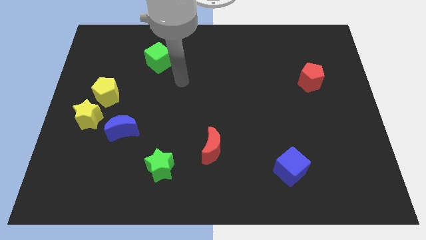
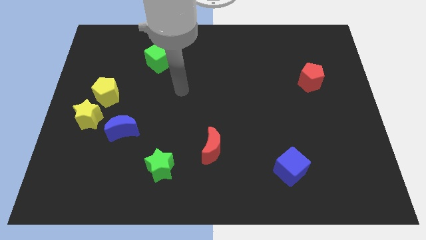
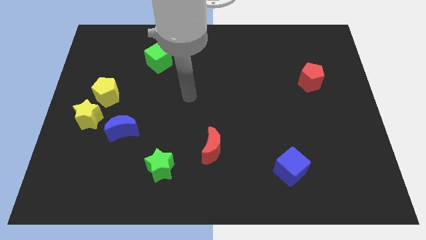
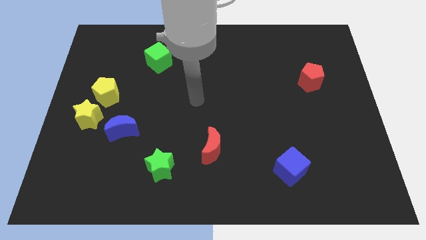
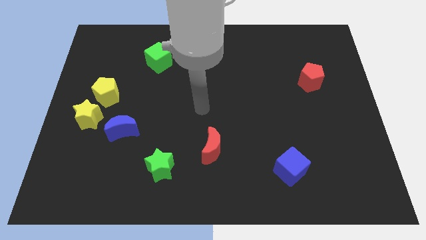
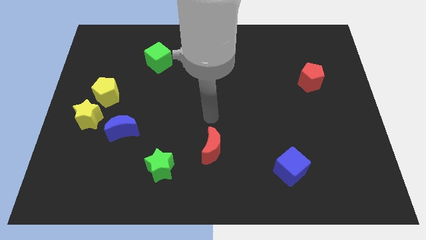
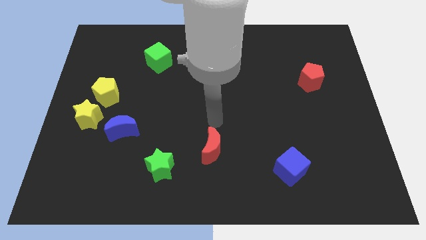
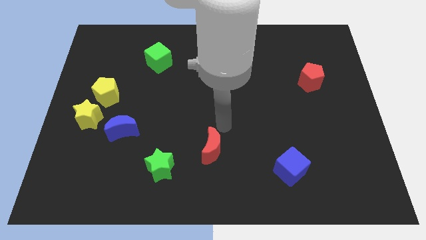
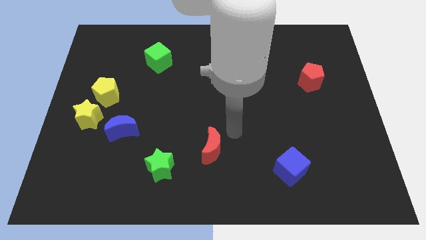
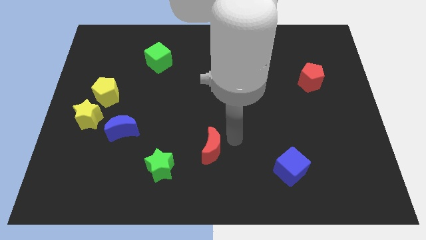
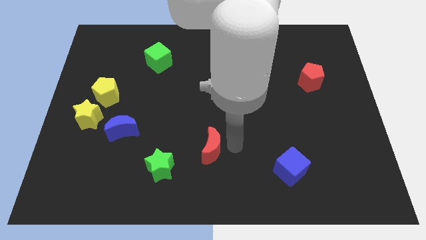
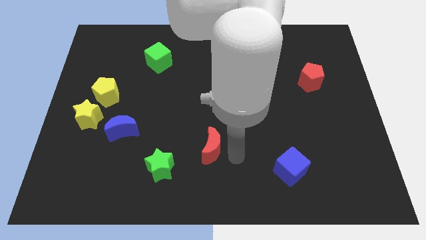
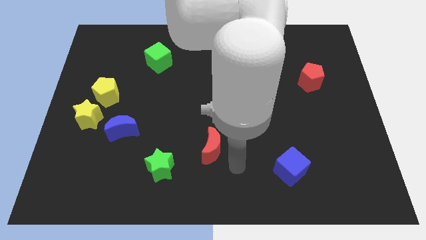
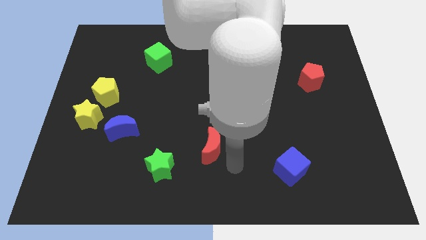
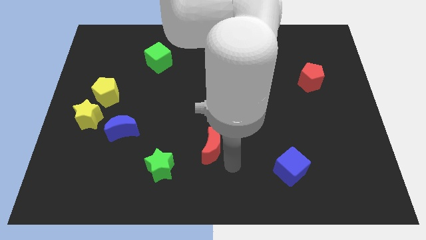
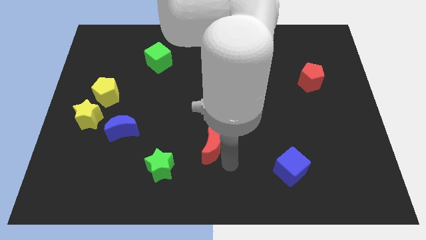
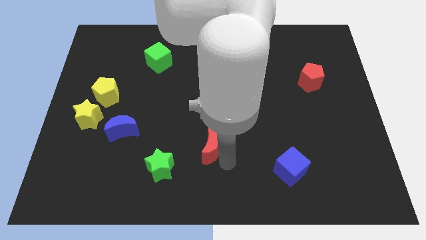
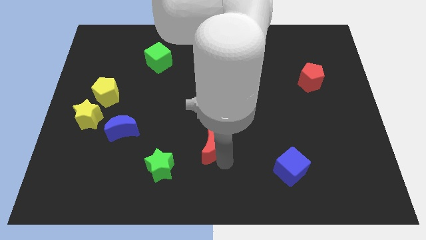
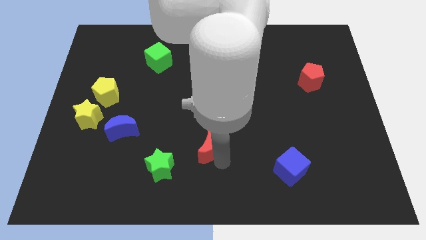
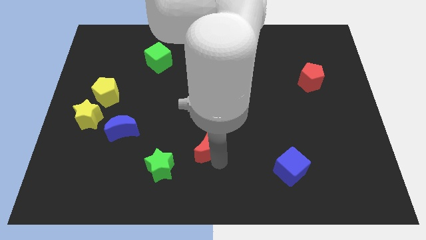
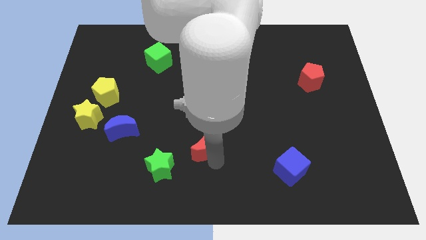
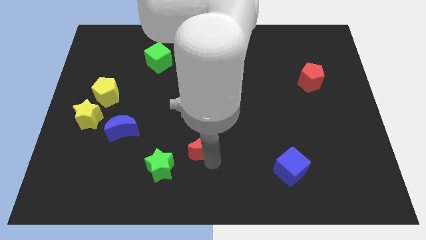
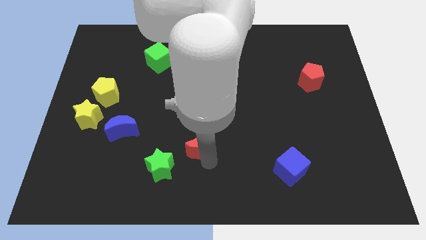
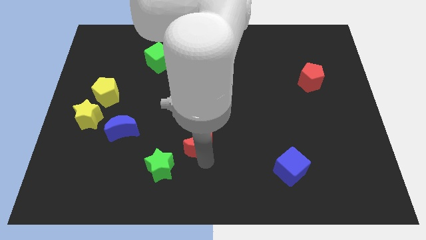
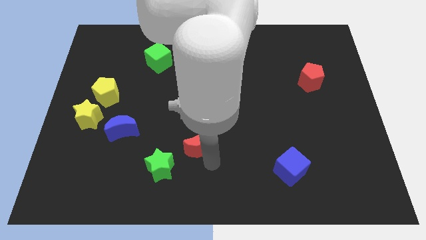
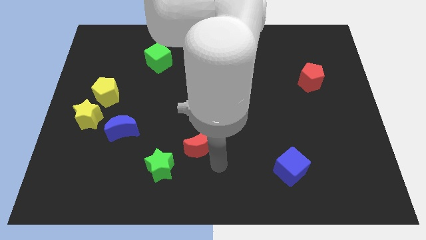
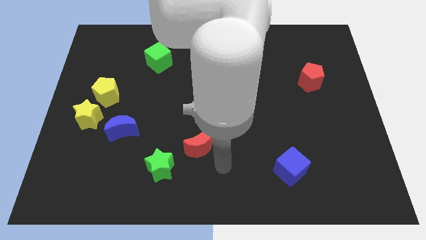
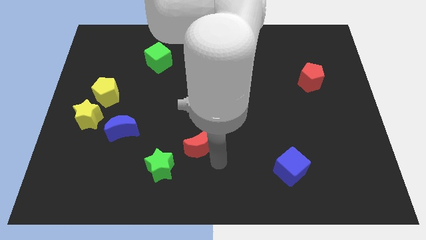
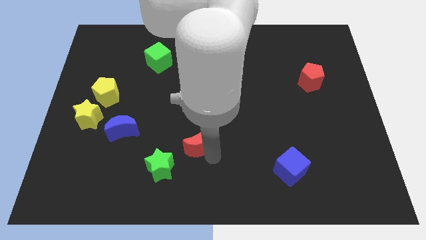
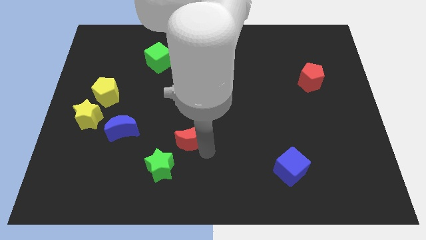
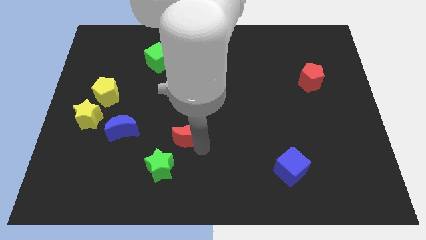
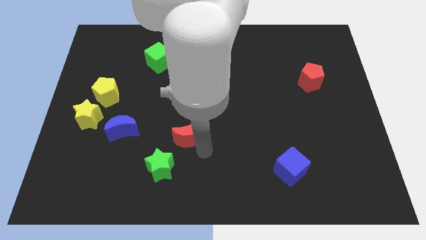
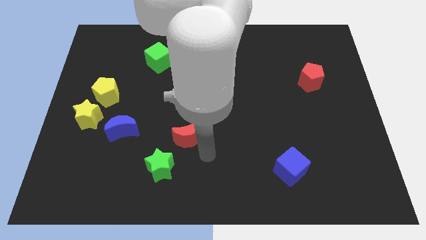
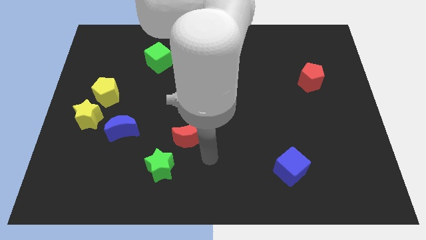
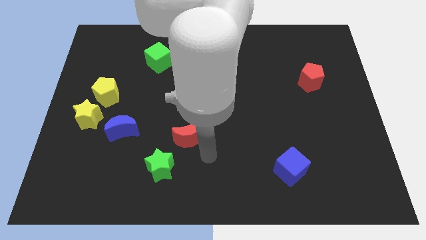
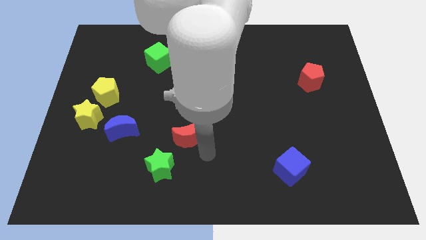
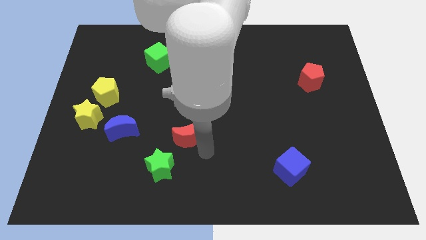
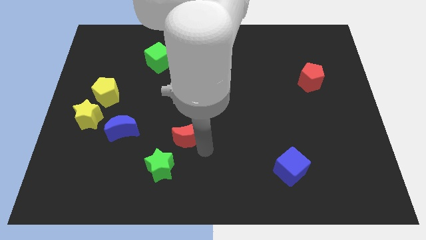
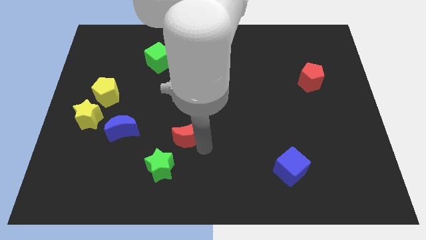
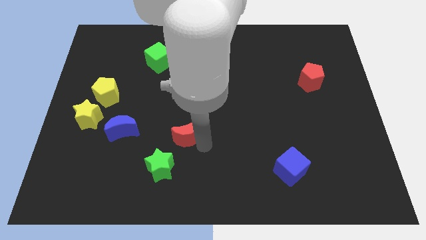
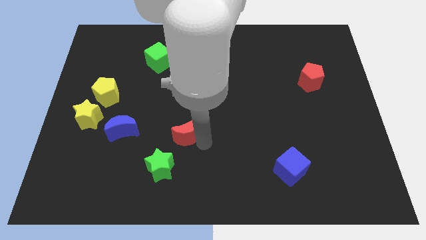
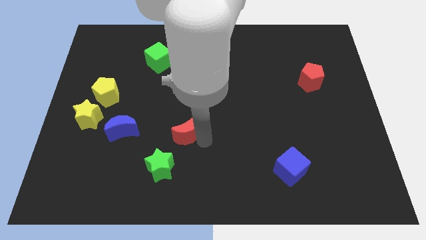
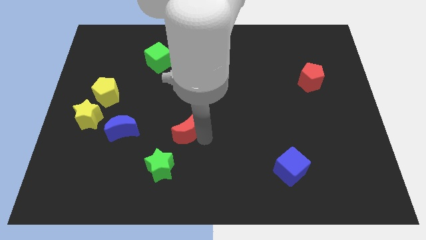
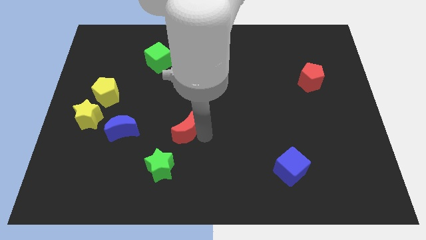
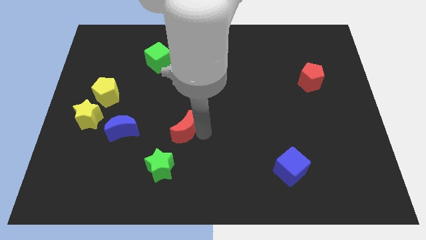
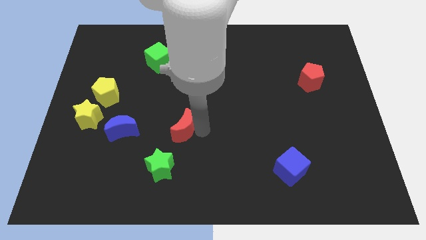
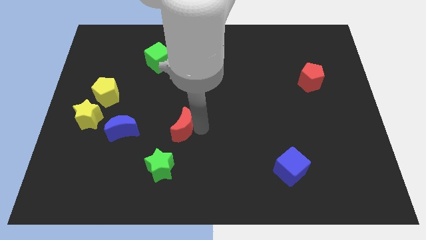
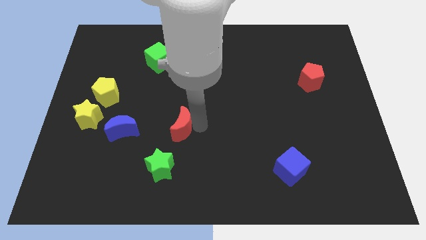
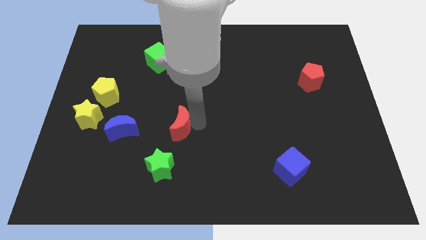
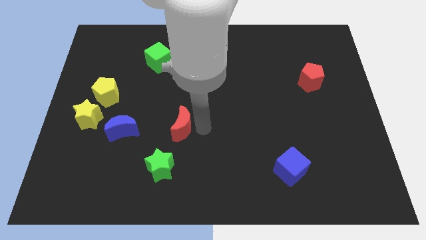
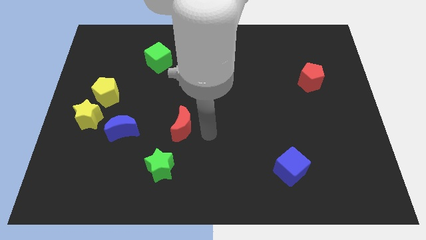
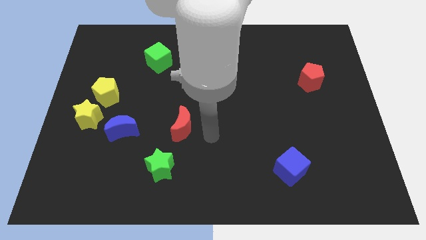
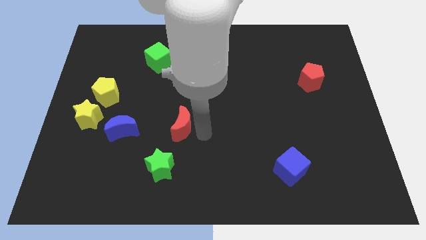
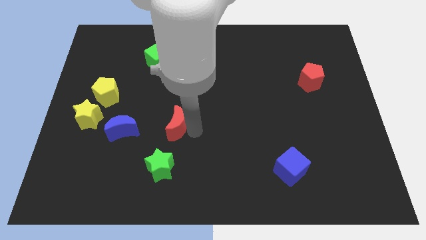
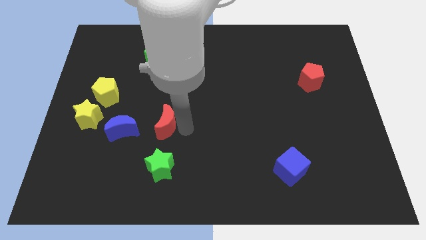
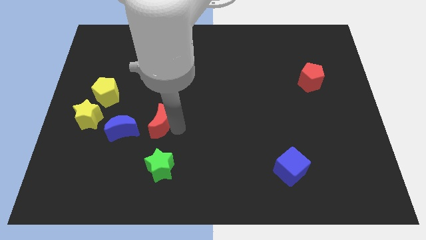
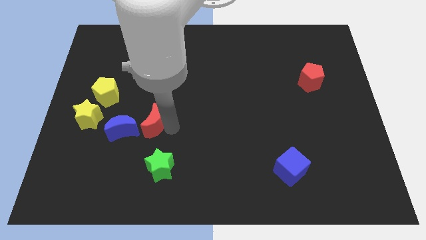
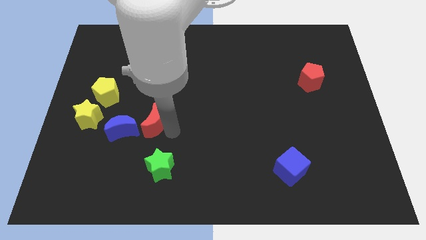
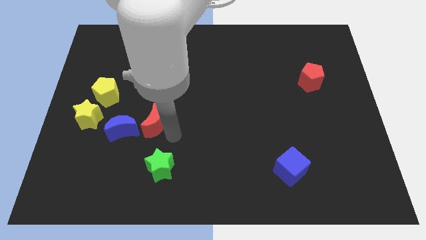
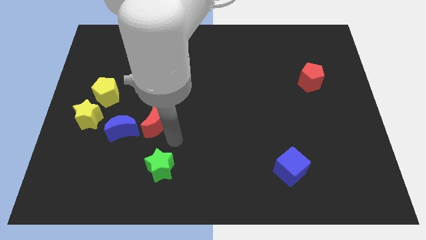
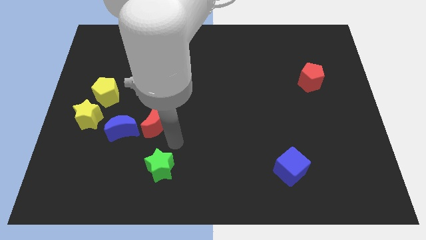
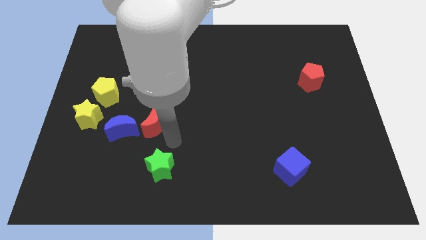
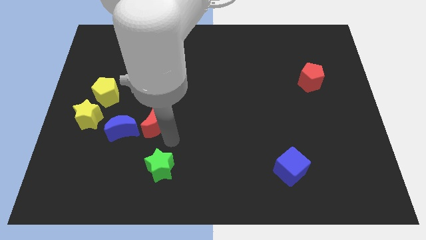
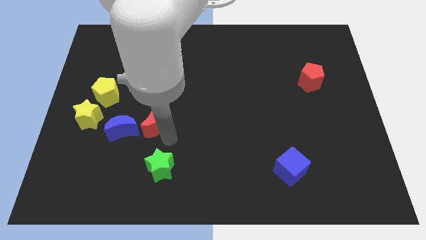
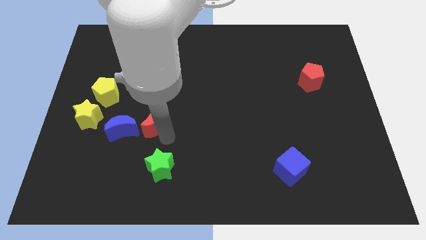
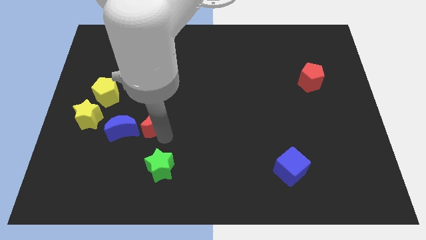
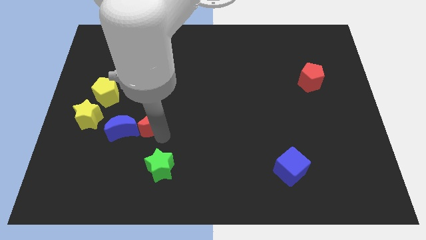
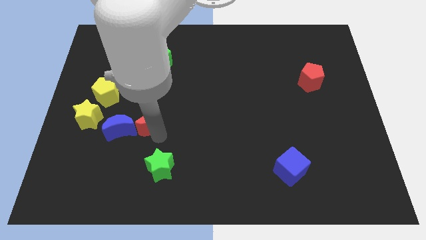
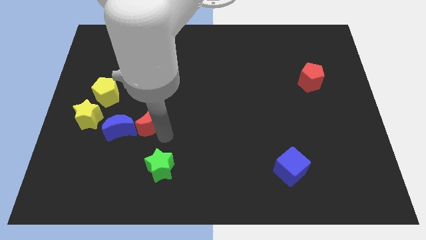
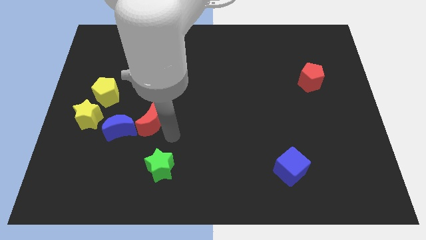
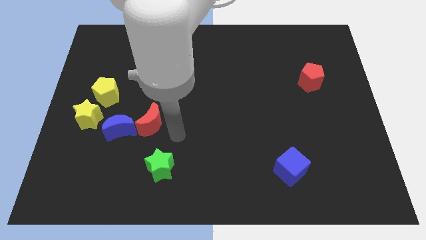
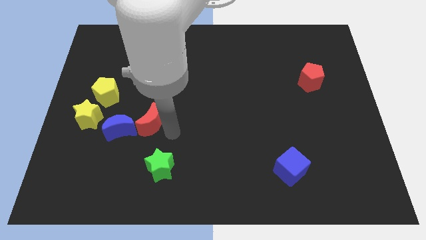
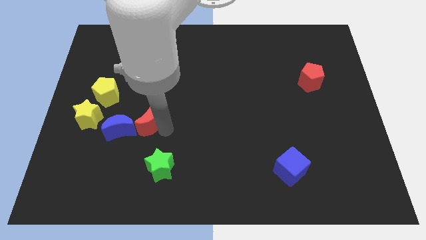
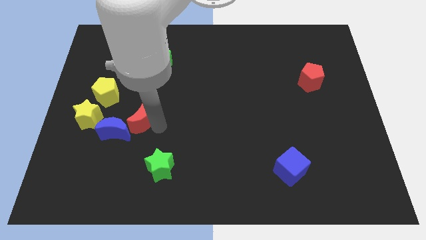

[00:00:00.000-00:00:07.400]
move the red moon to the bottom right side of the yellow pentagon
